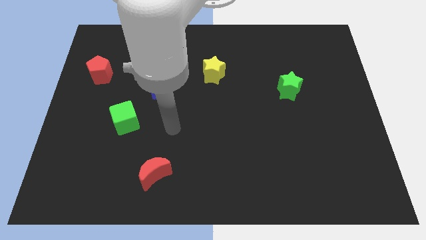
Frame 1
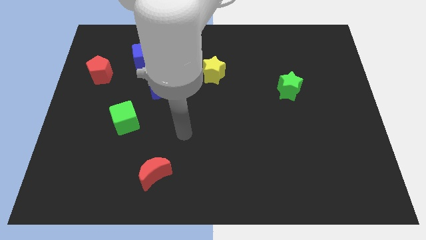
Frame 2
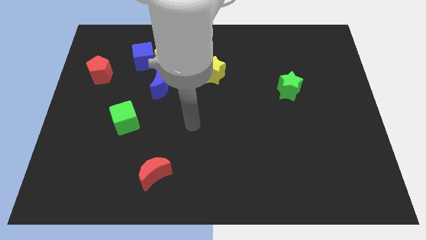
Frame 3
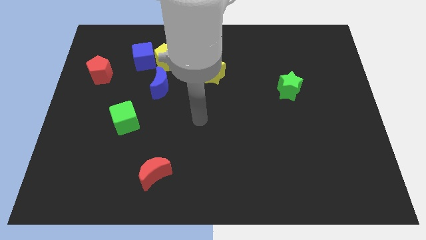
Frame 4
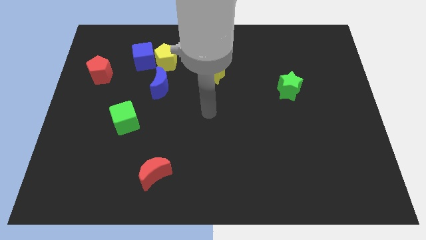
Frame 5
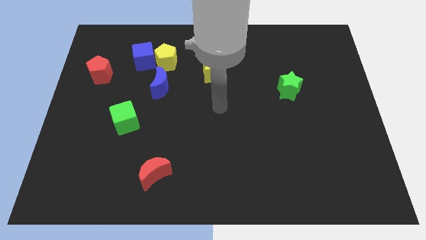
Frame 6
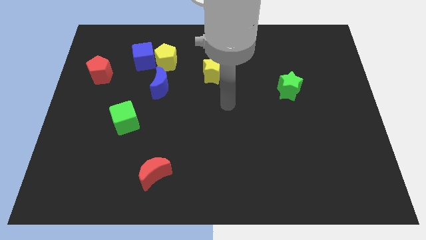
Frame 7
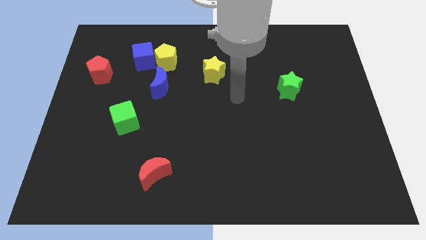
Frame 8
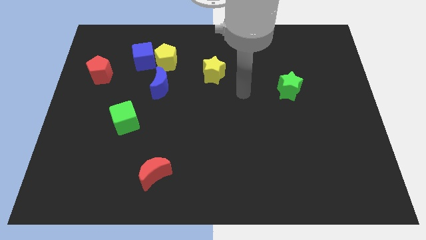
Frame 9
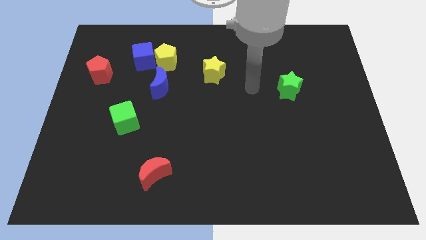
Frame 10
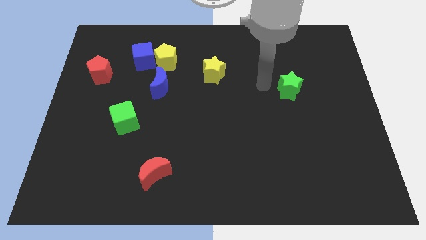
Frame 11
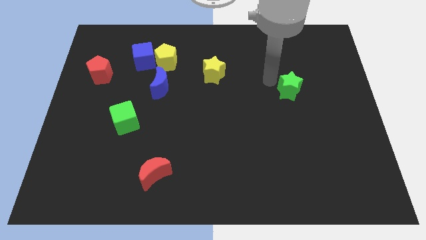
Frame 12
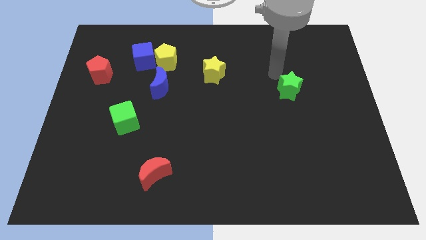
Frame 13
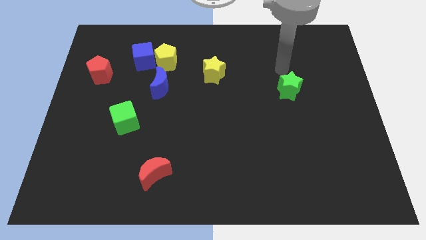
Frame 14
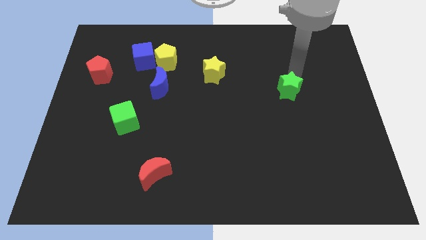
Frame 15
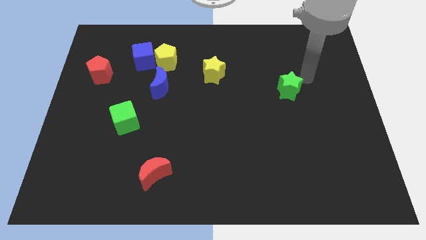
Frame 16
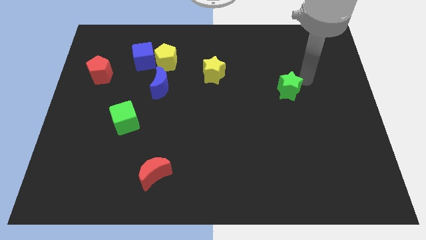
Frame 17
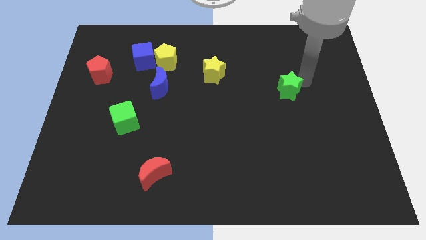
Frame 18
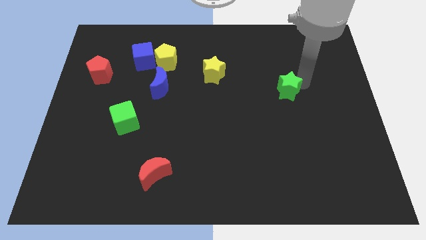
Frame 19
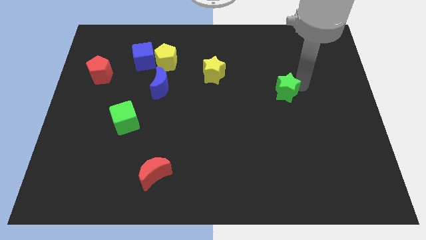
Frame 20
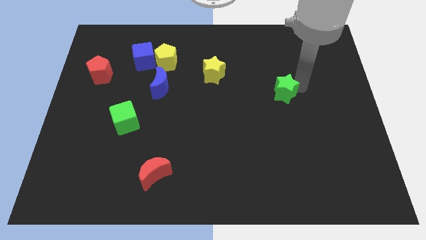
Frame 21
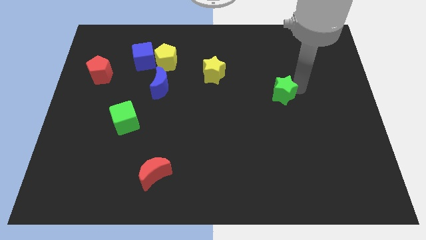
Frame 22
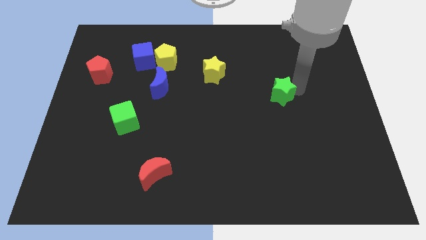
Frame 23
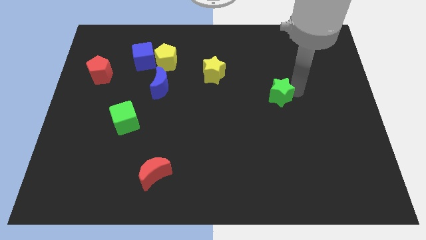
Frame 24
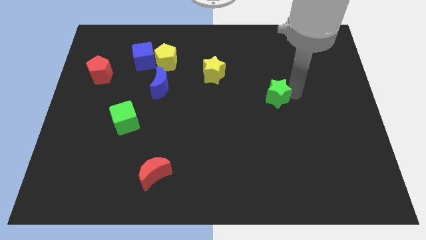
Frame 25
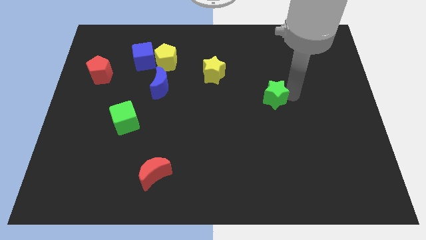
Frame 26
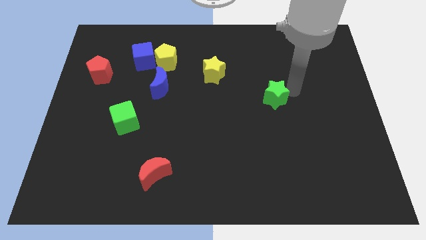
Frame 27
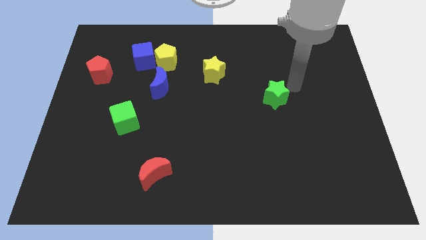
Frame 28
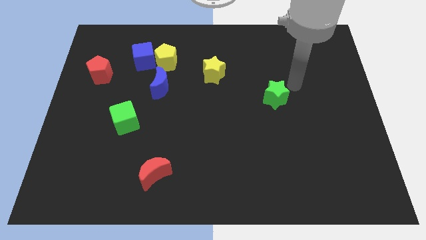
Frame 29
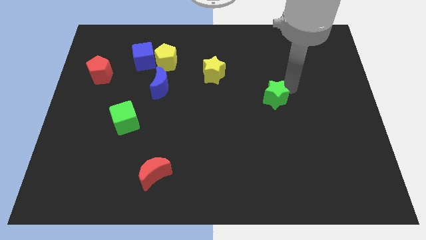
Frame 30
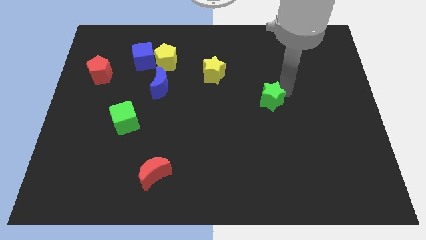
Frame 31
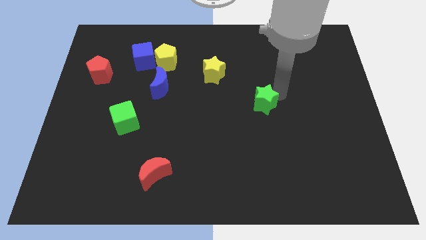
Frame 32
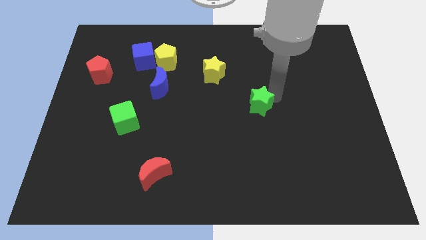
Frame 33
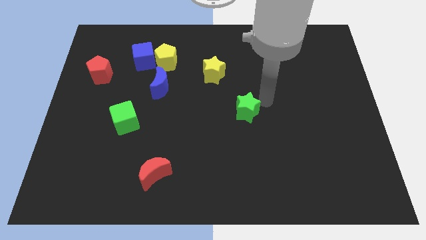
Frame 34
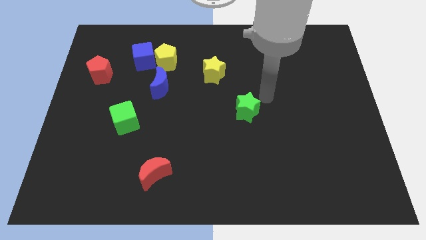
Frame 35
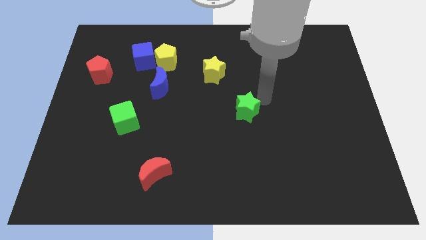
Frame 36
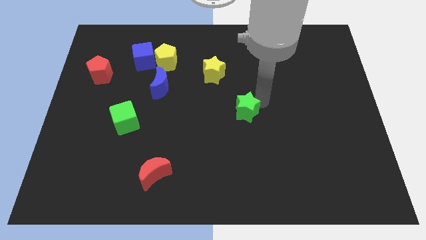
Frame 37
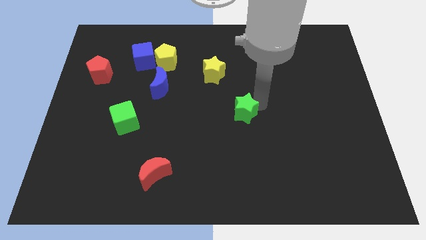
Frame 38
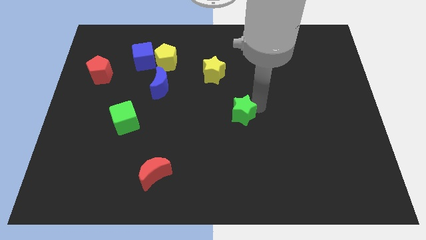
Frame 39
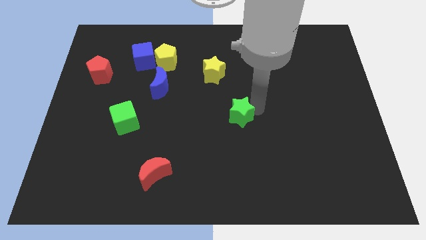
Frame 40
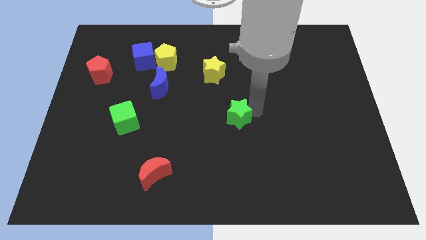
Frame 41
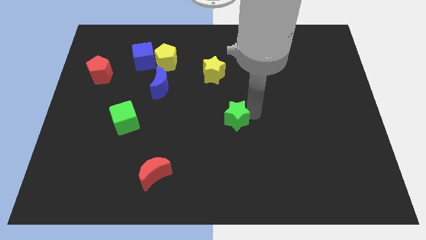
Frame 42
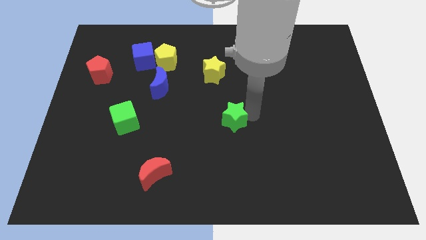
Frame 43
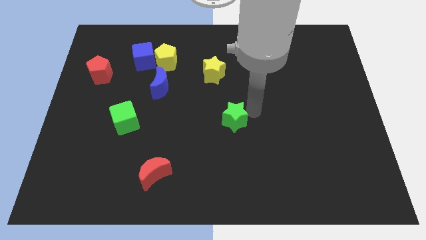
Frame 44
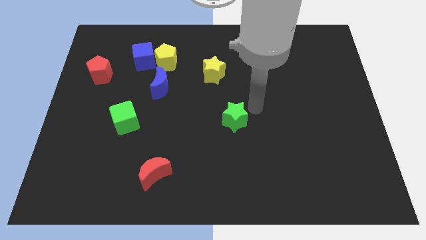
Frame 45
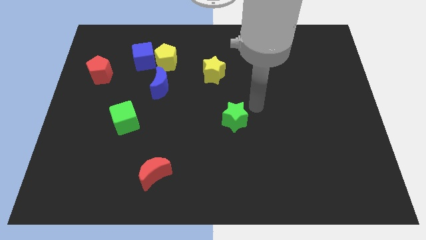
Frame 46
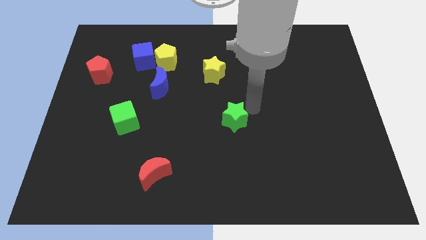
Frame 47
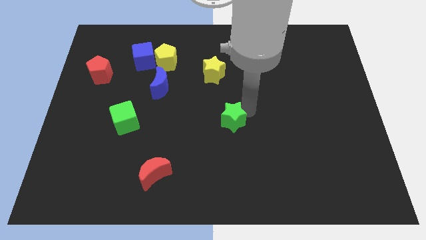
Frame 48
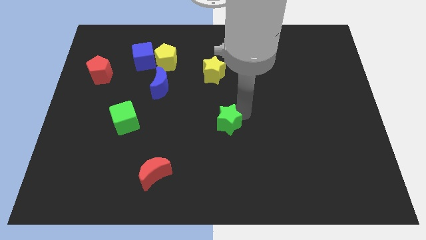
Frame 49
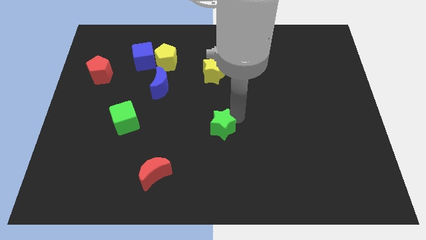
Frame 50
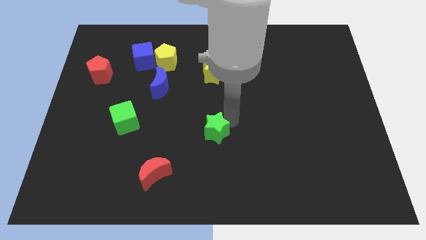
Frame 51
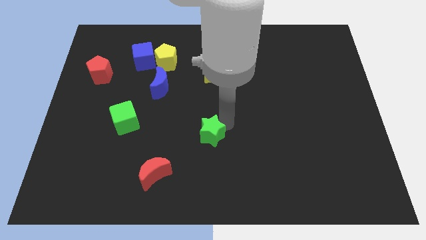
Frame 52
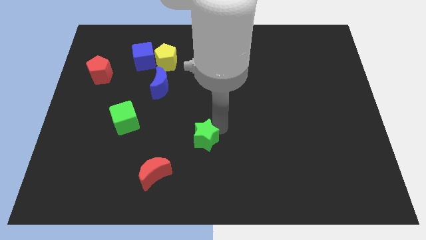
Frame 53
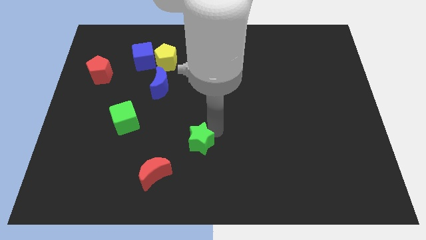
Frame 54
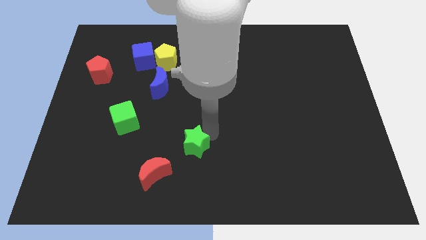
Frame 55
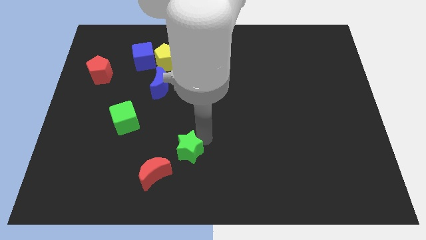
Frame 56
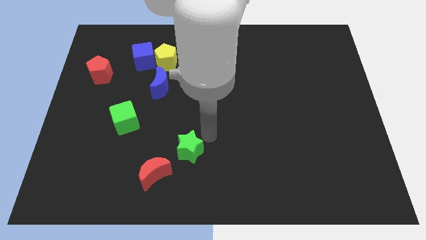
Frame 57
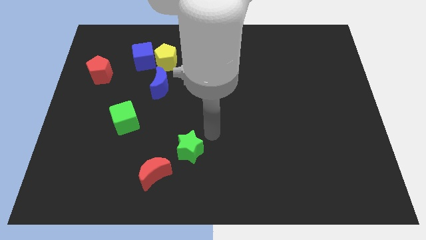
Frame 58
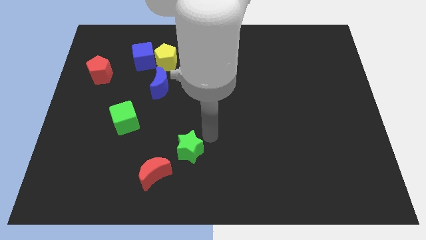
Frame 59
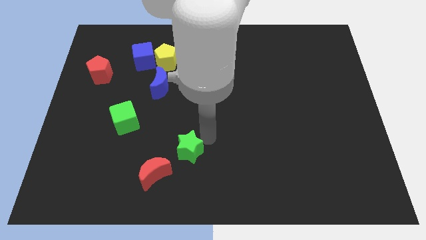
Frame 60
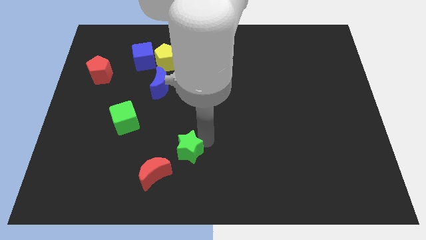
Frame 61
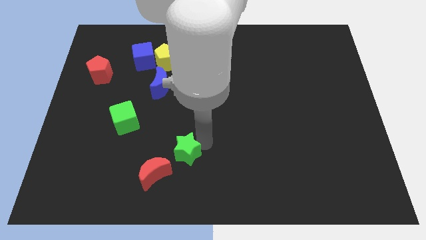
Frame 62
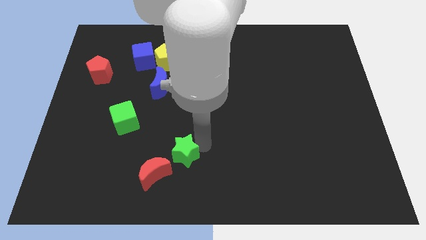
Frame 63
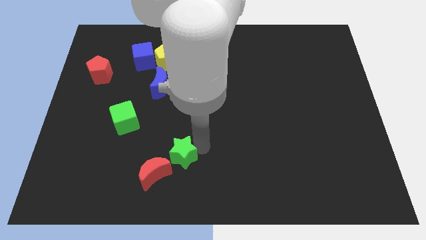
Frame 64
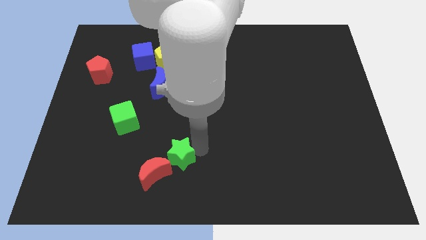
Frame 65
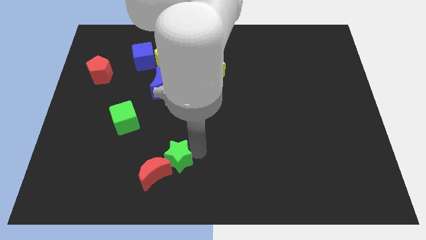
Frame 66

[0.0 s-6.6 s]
put the green star close to the red moon

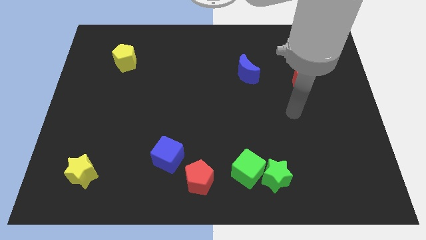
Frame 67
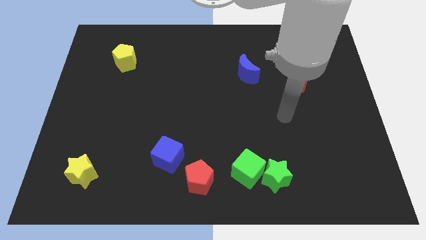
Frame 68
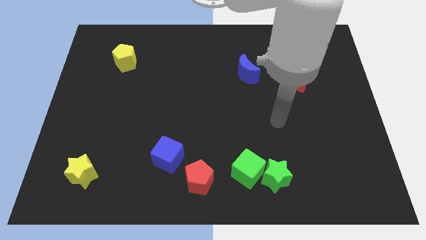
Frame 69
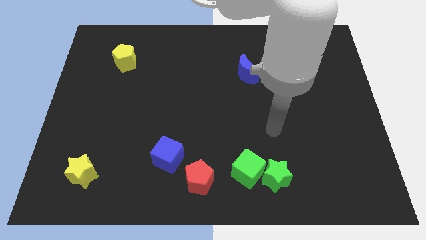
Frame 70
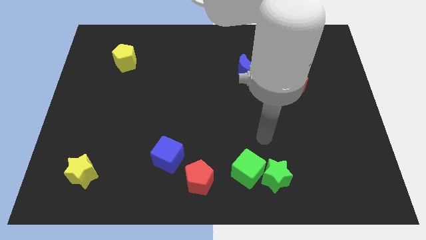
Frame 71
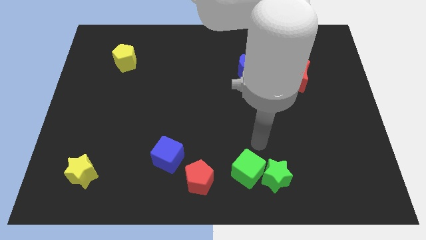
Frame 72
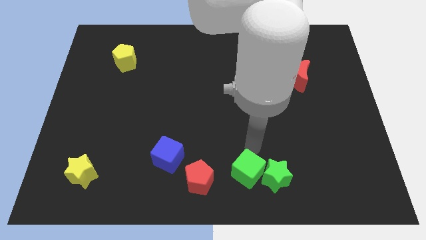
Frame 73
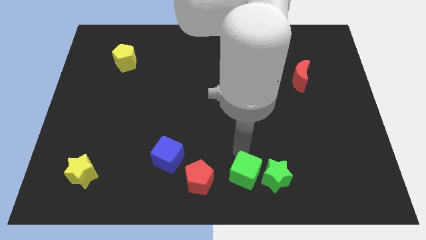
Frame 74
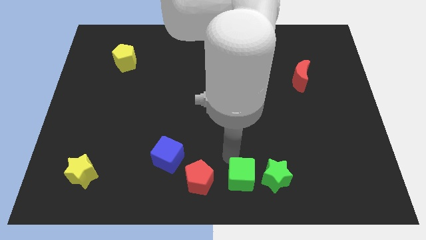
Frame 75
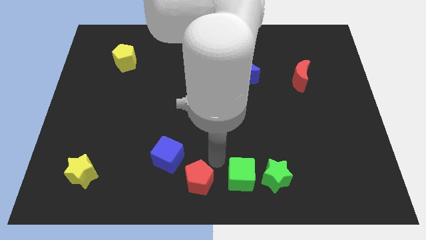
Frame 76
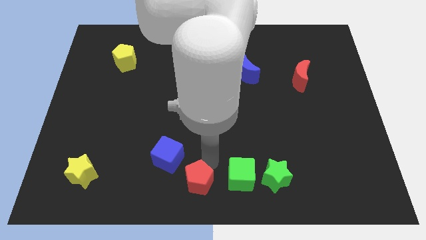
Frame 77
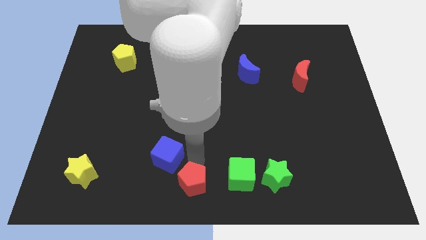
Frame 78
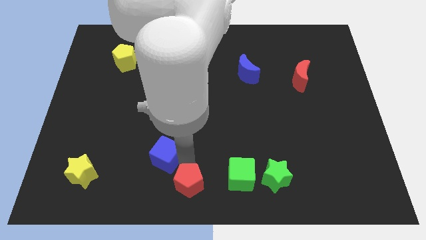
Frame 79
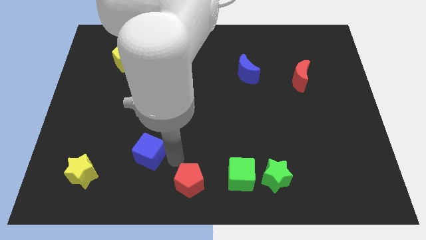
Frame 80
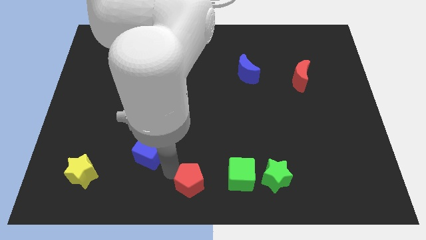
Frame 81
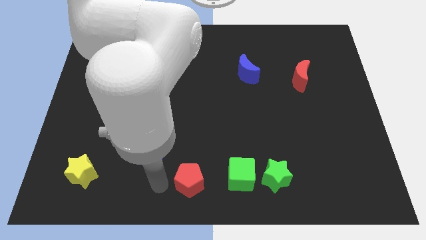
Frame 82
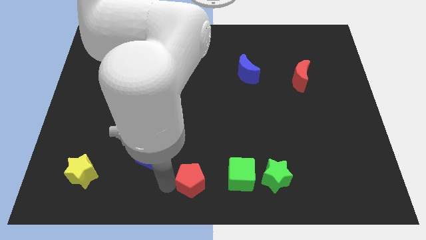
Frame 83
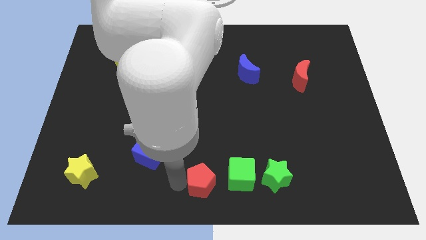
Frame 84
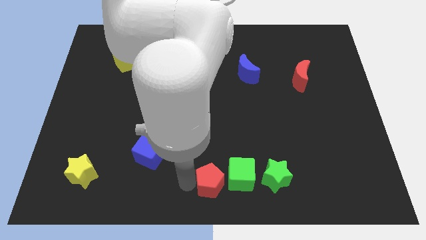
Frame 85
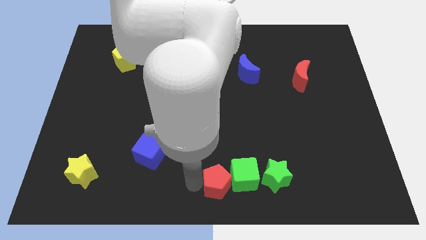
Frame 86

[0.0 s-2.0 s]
push the red pentagon towards the green cube
